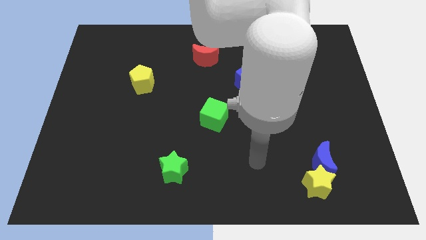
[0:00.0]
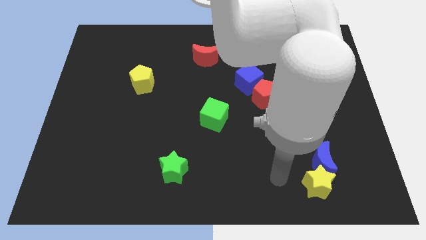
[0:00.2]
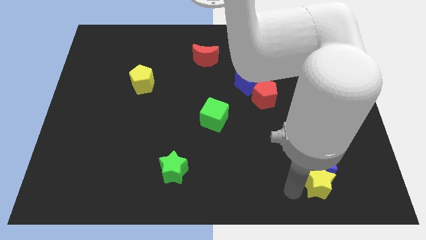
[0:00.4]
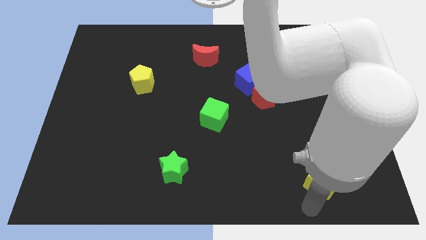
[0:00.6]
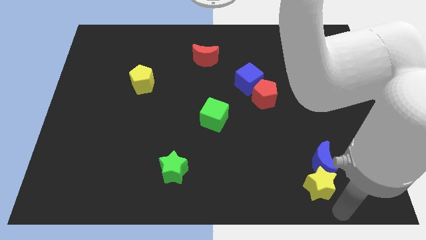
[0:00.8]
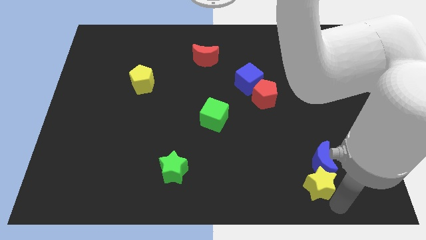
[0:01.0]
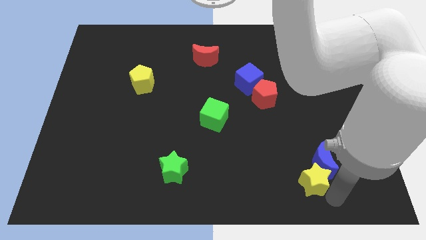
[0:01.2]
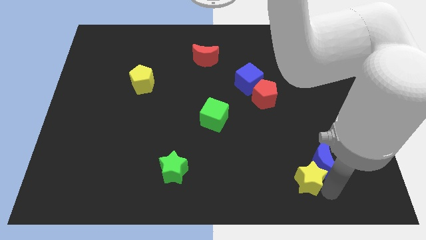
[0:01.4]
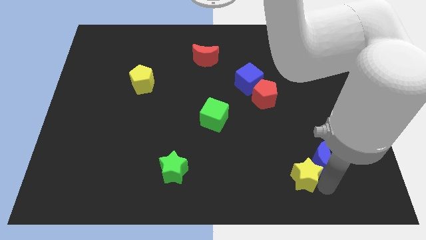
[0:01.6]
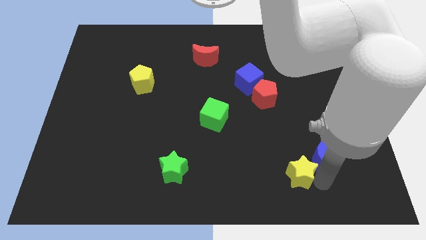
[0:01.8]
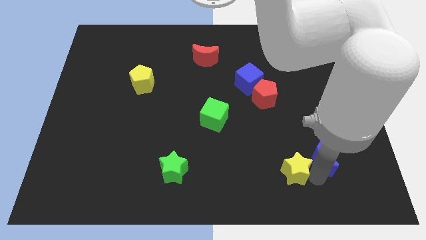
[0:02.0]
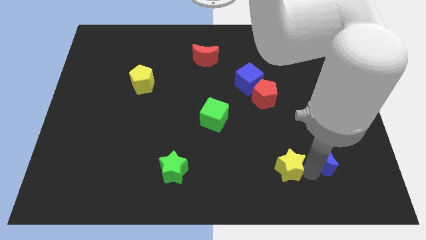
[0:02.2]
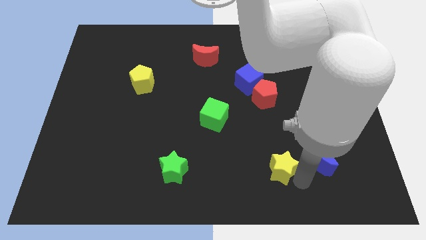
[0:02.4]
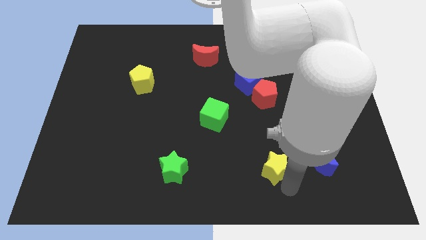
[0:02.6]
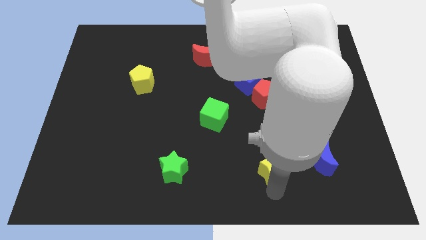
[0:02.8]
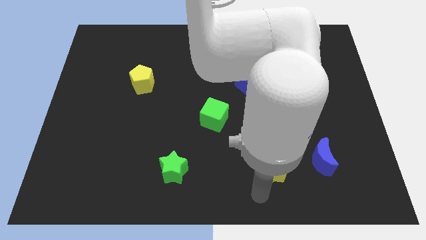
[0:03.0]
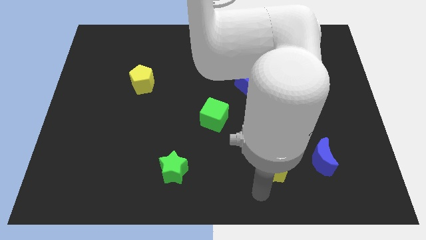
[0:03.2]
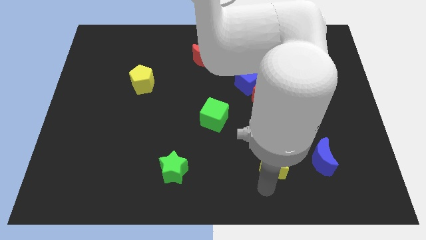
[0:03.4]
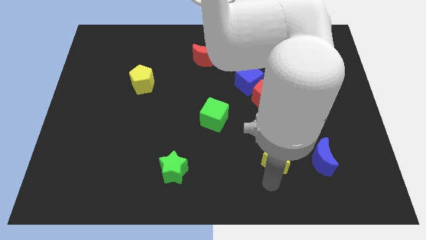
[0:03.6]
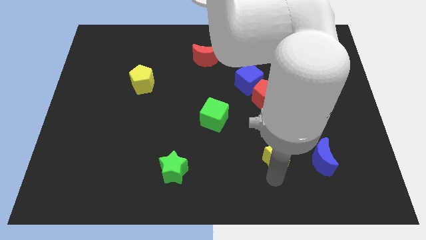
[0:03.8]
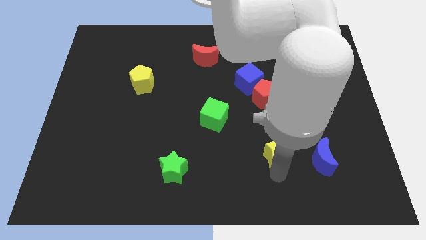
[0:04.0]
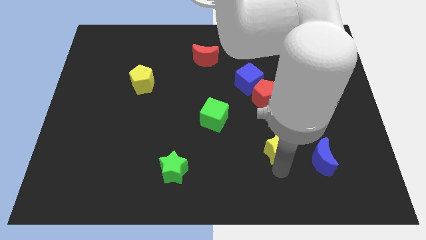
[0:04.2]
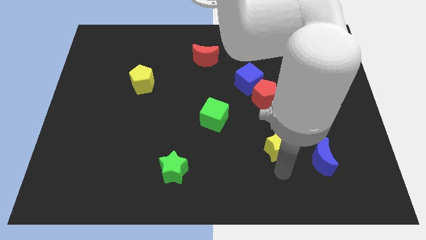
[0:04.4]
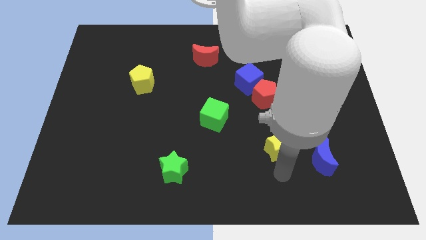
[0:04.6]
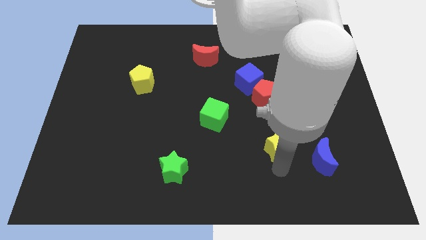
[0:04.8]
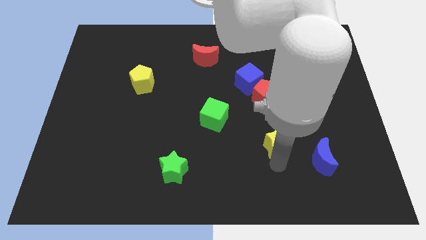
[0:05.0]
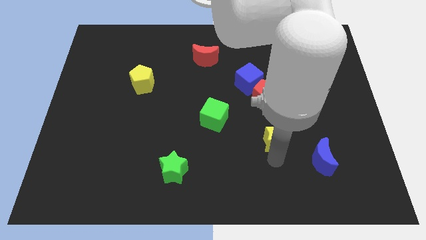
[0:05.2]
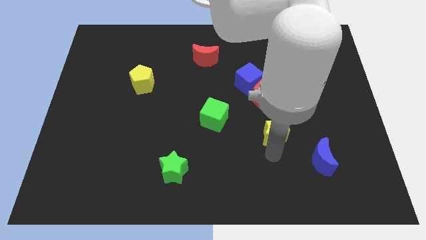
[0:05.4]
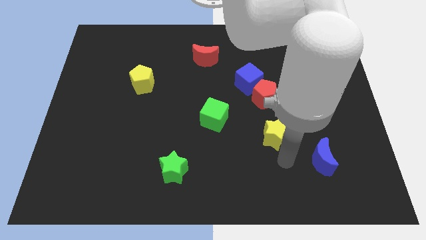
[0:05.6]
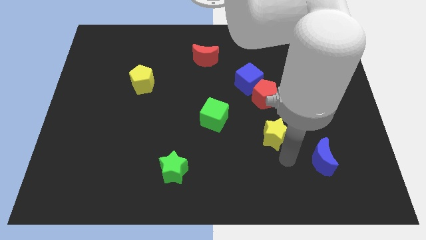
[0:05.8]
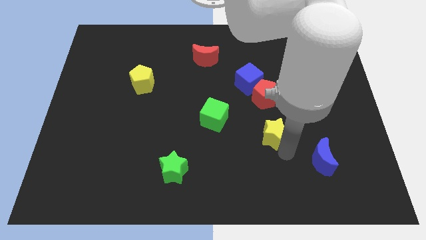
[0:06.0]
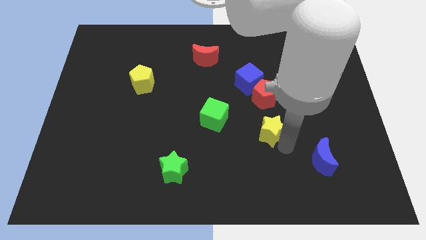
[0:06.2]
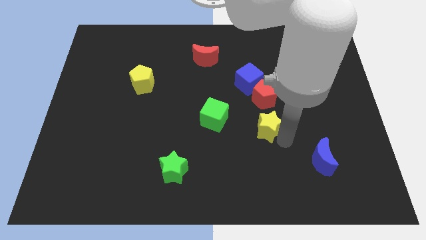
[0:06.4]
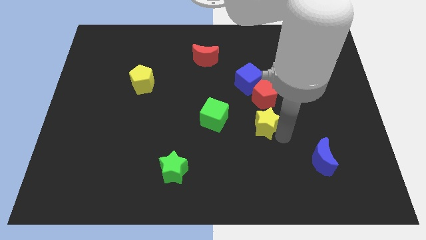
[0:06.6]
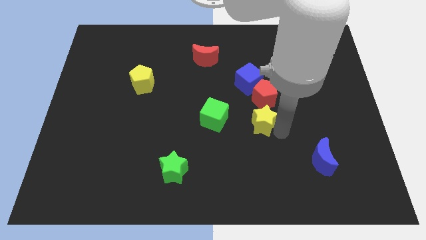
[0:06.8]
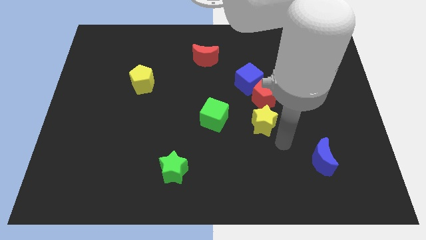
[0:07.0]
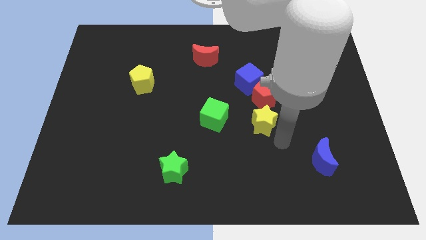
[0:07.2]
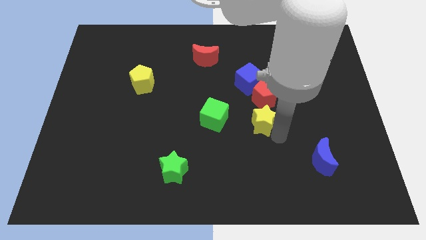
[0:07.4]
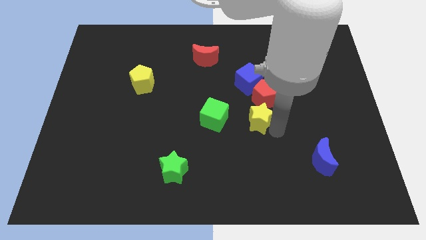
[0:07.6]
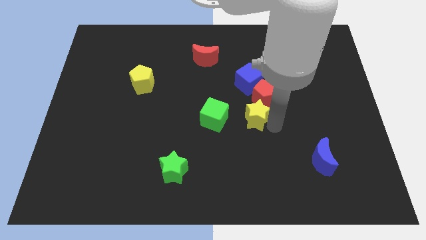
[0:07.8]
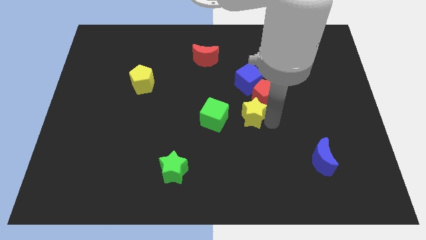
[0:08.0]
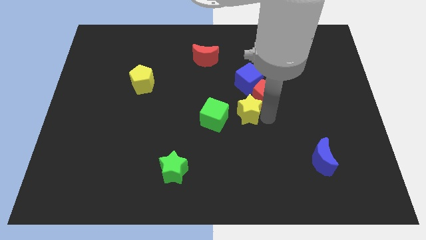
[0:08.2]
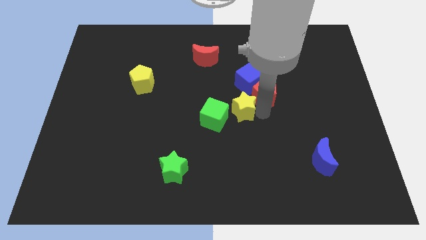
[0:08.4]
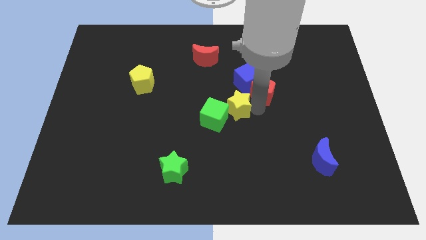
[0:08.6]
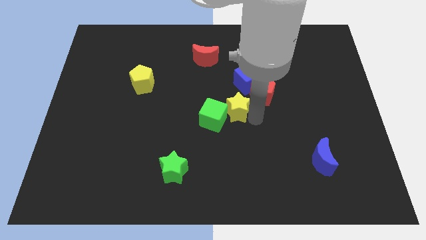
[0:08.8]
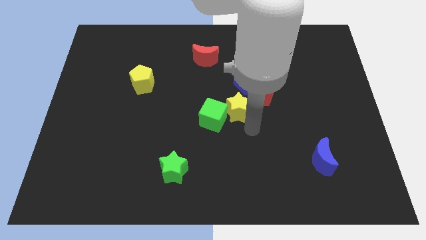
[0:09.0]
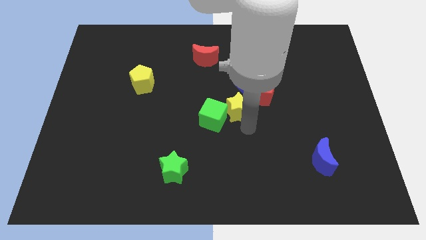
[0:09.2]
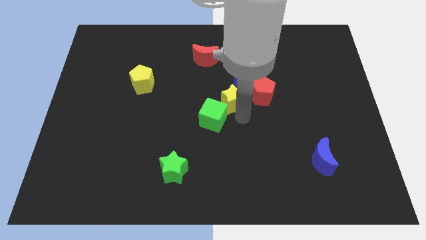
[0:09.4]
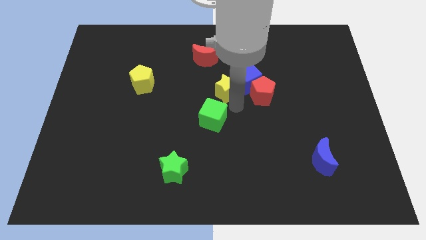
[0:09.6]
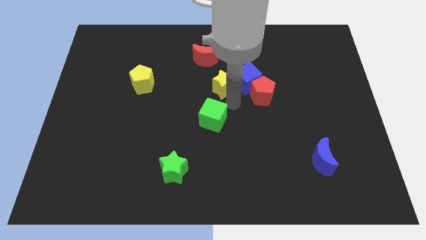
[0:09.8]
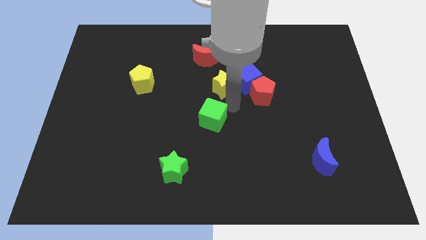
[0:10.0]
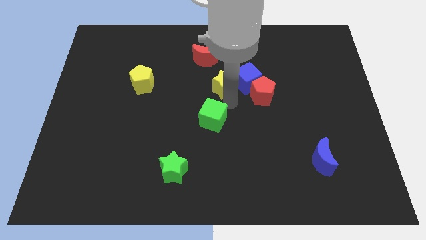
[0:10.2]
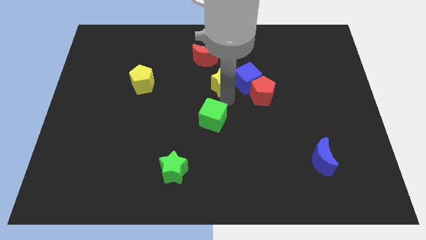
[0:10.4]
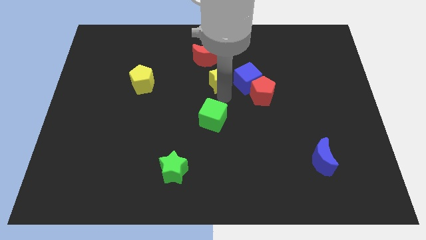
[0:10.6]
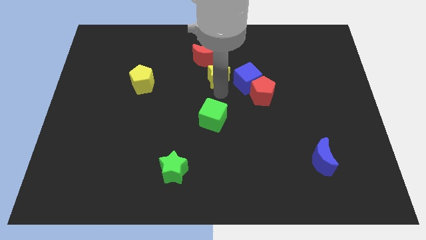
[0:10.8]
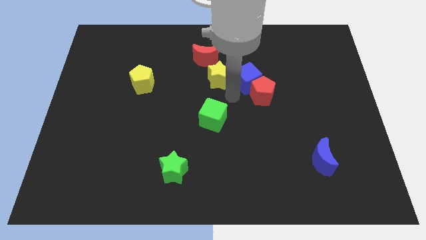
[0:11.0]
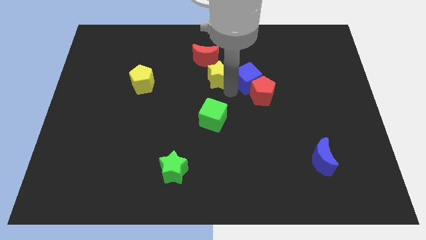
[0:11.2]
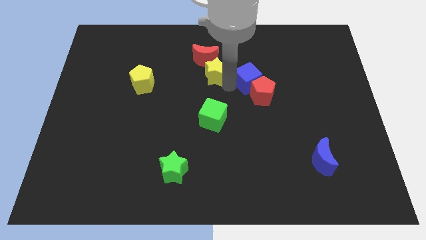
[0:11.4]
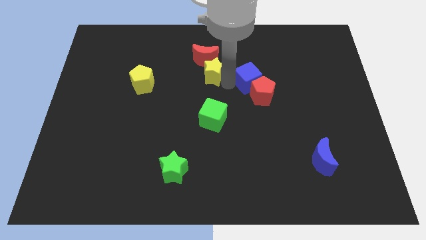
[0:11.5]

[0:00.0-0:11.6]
move the yellow star towards the red moon

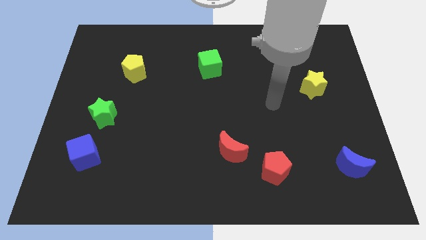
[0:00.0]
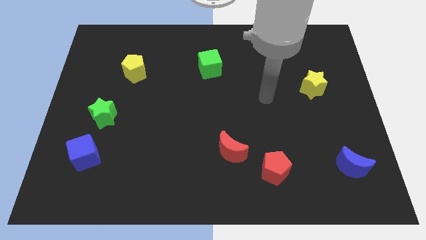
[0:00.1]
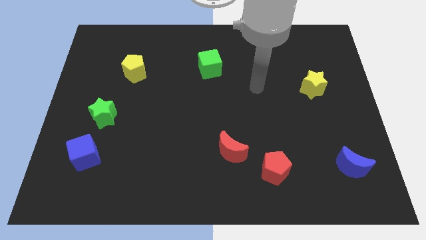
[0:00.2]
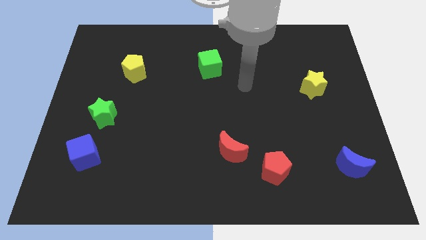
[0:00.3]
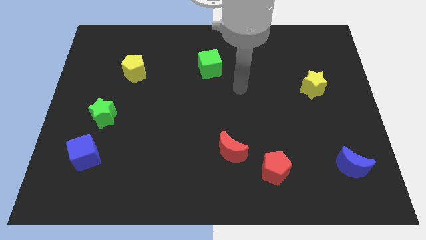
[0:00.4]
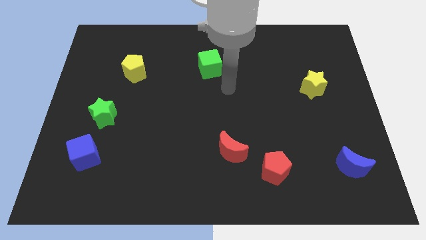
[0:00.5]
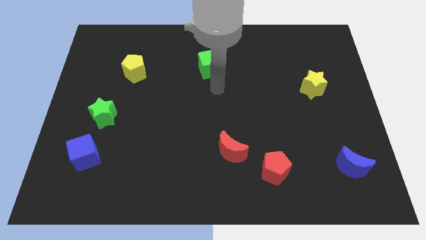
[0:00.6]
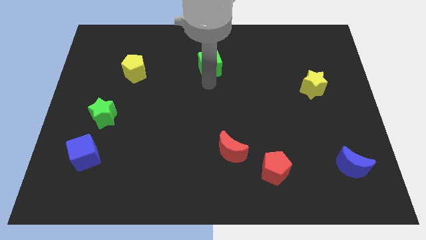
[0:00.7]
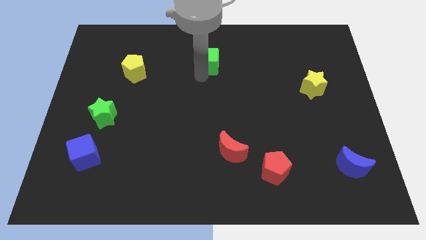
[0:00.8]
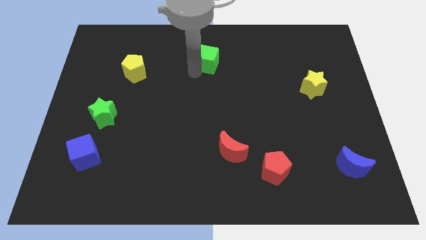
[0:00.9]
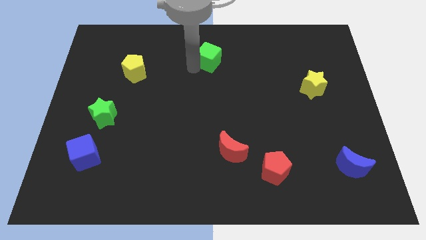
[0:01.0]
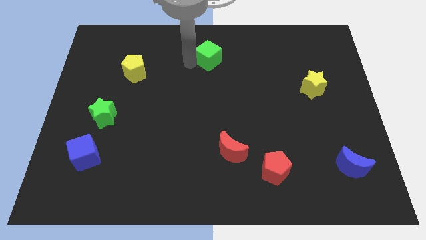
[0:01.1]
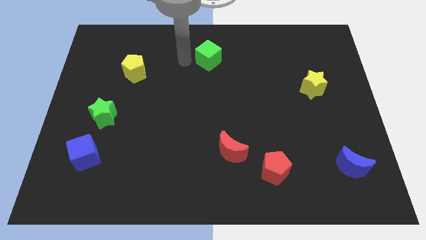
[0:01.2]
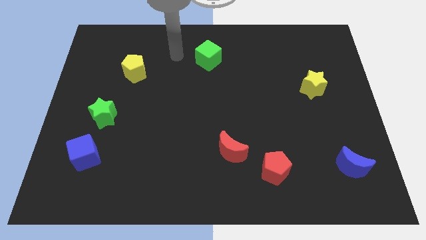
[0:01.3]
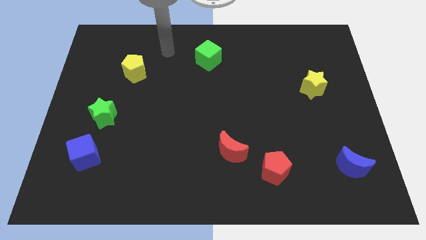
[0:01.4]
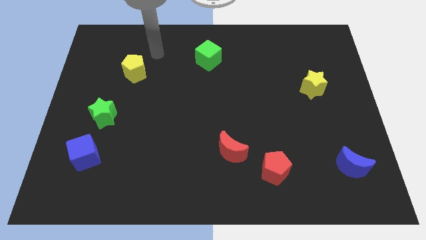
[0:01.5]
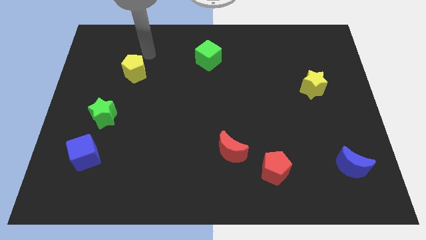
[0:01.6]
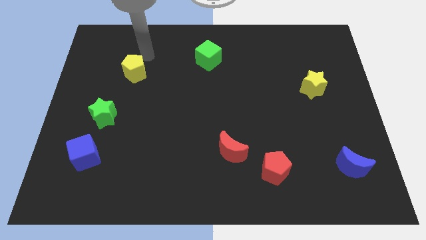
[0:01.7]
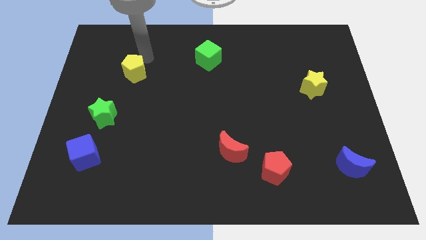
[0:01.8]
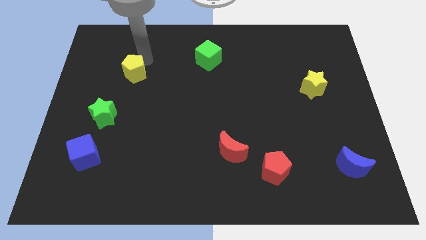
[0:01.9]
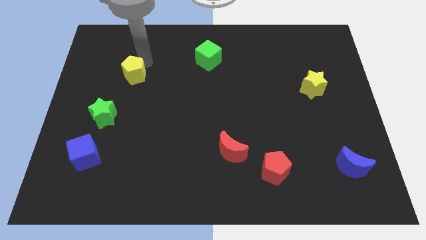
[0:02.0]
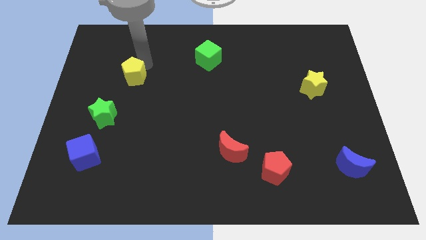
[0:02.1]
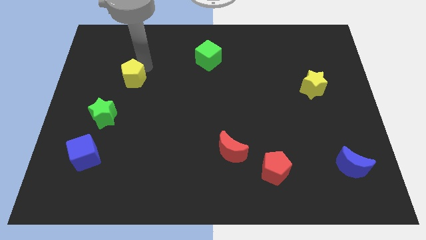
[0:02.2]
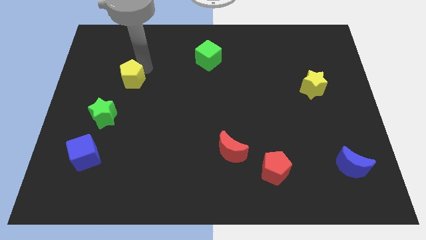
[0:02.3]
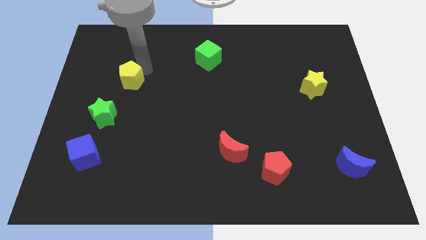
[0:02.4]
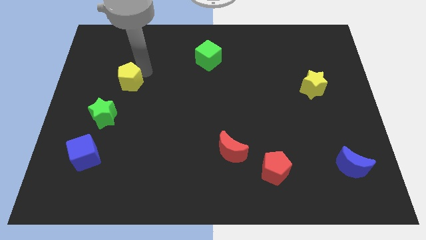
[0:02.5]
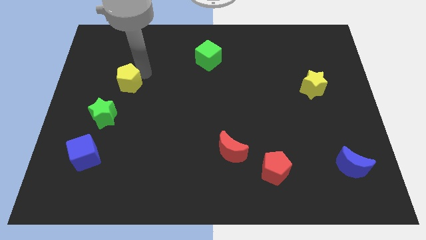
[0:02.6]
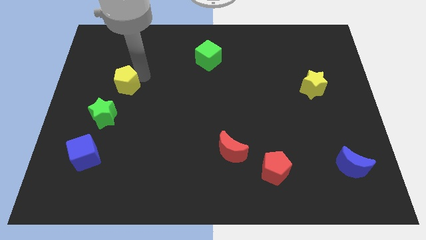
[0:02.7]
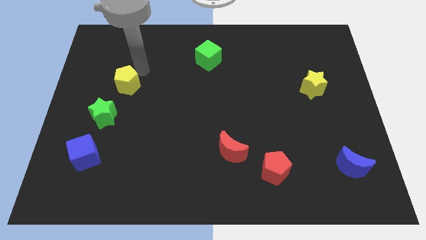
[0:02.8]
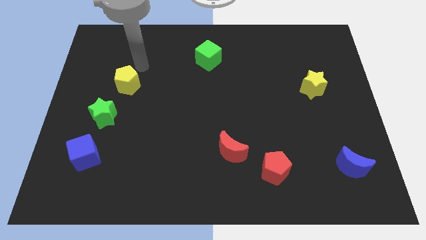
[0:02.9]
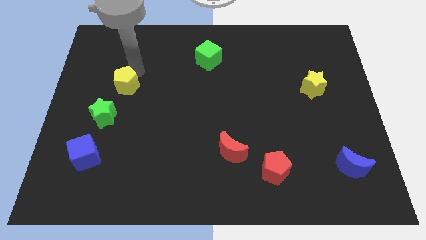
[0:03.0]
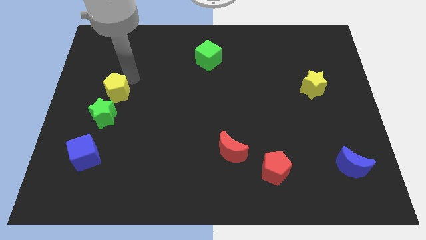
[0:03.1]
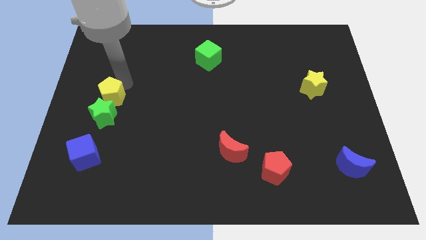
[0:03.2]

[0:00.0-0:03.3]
move the yellow pentagon next to the green star
